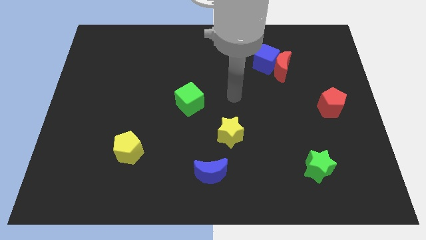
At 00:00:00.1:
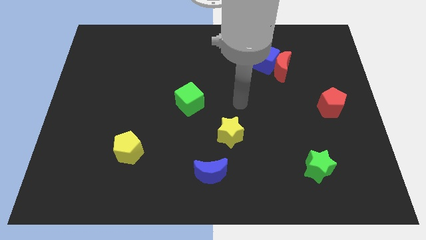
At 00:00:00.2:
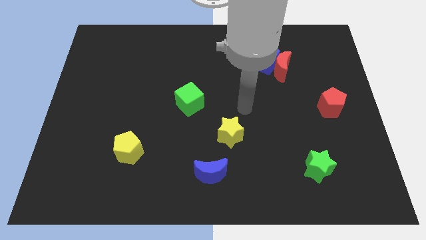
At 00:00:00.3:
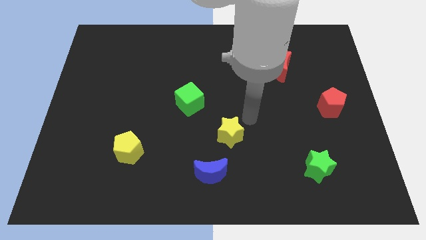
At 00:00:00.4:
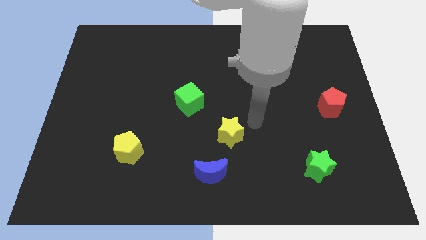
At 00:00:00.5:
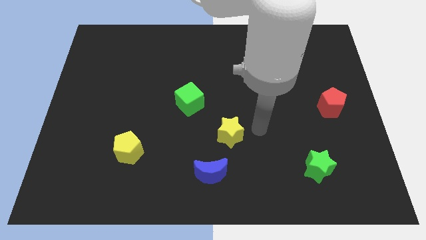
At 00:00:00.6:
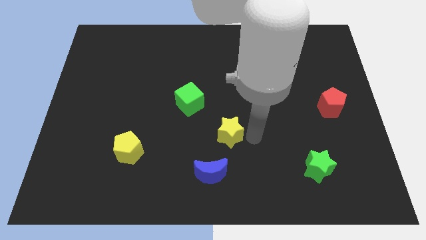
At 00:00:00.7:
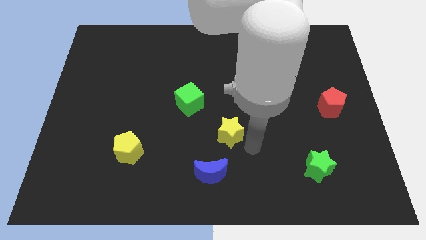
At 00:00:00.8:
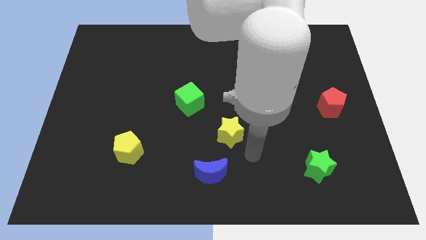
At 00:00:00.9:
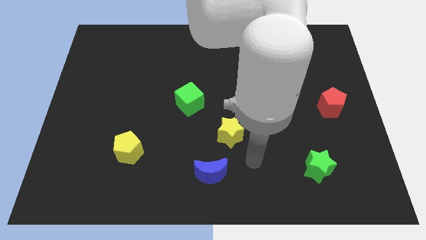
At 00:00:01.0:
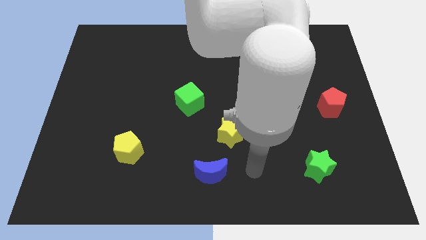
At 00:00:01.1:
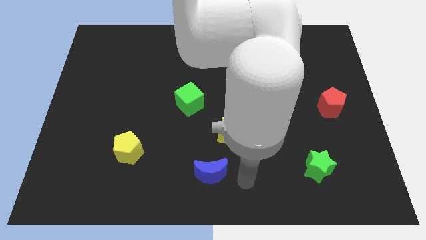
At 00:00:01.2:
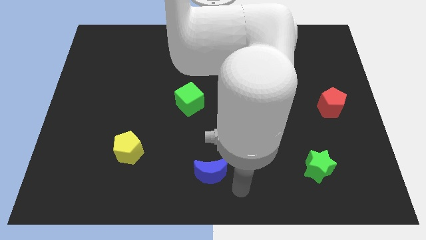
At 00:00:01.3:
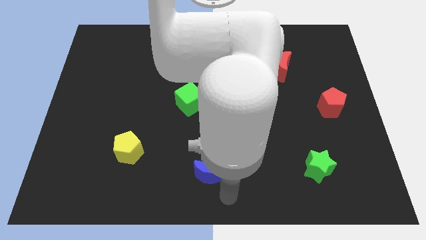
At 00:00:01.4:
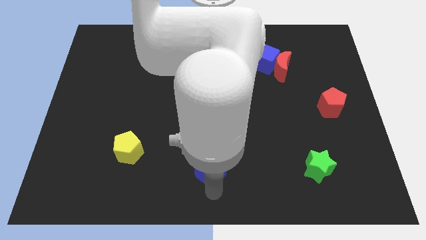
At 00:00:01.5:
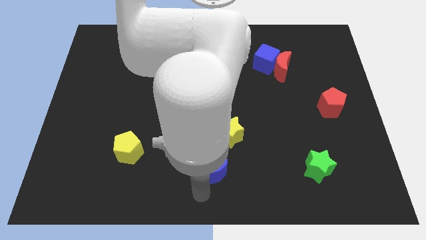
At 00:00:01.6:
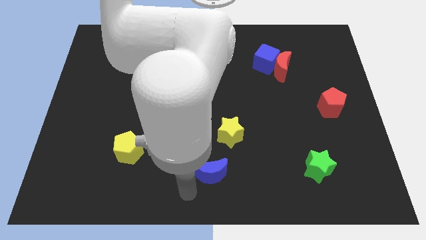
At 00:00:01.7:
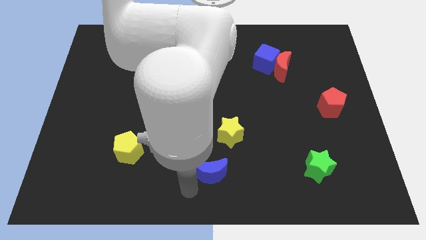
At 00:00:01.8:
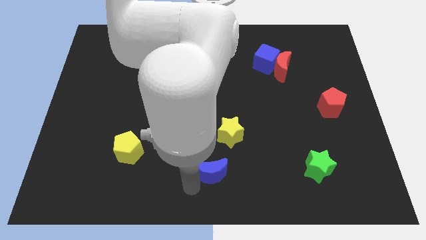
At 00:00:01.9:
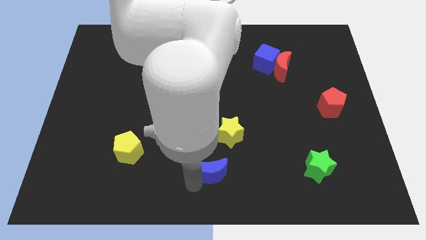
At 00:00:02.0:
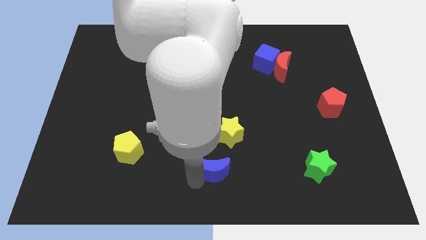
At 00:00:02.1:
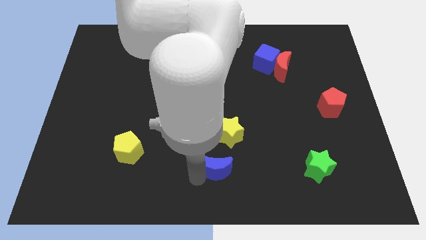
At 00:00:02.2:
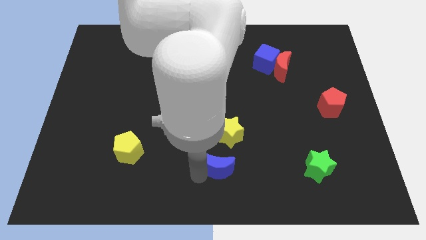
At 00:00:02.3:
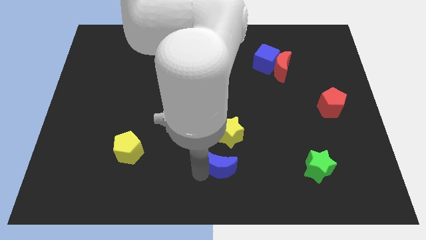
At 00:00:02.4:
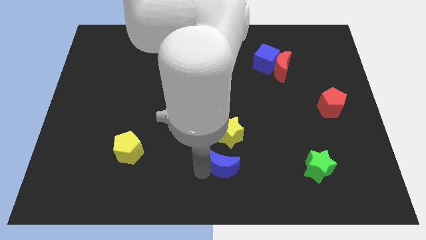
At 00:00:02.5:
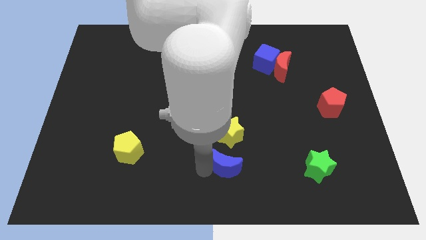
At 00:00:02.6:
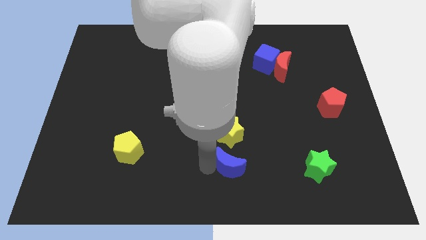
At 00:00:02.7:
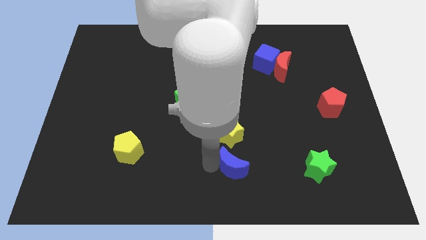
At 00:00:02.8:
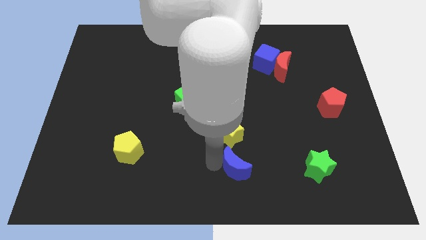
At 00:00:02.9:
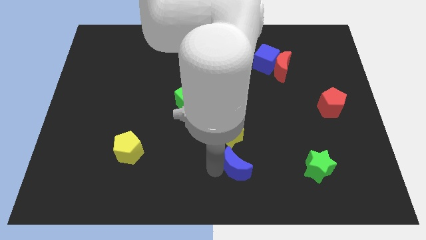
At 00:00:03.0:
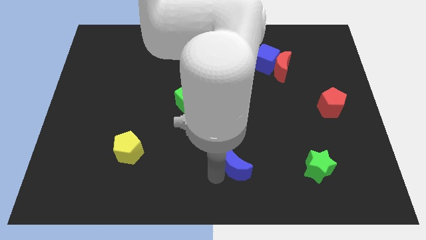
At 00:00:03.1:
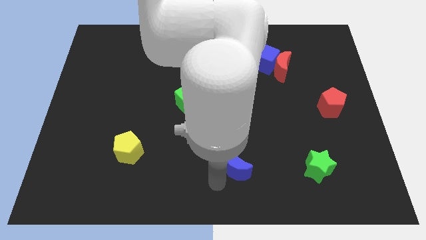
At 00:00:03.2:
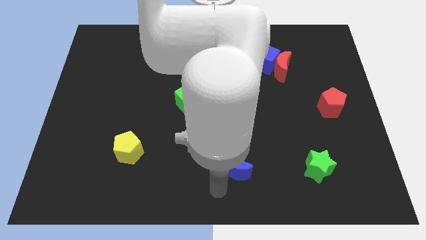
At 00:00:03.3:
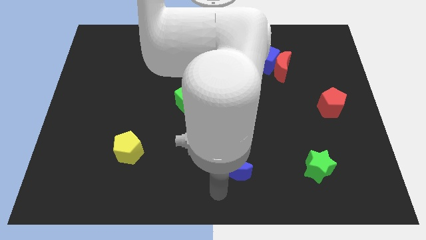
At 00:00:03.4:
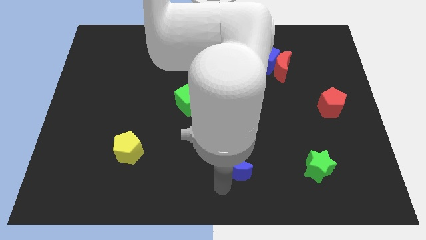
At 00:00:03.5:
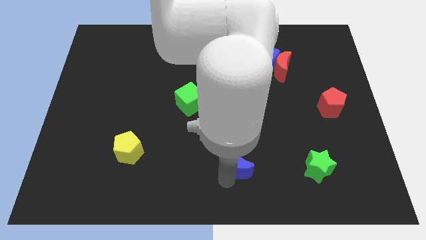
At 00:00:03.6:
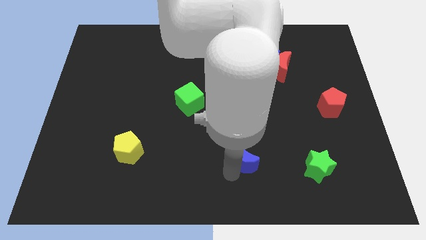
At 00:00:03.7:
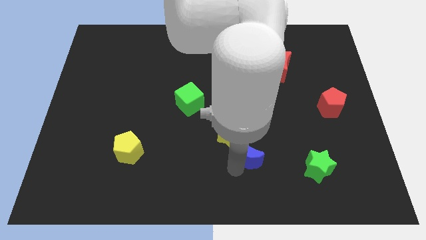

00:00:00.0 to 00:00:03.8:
move the blue moon up and then right slightly

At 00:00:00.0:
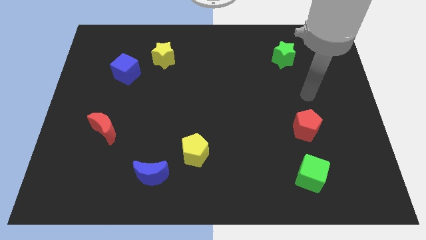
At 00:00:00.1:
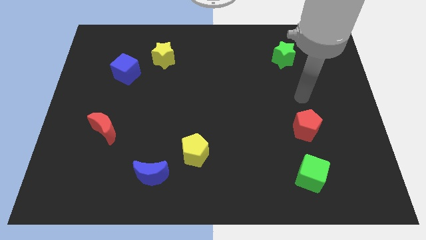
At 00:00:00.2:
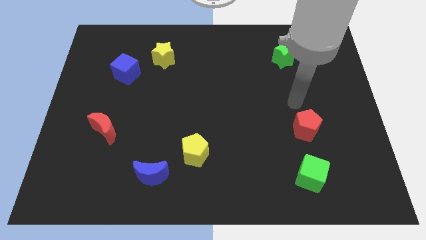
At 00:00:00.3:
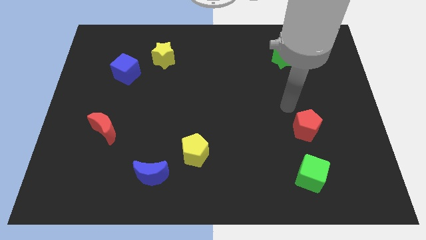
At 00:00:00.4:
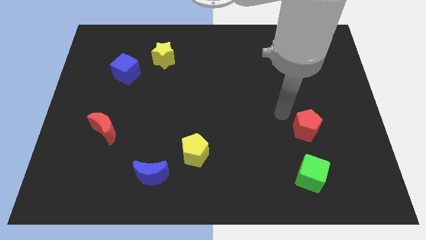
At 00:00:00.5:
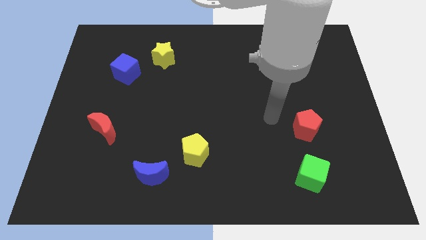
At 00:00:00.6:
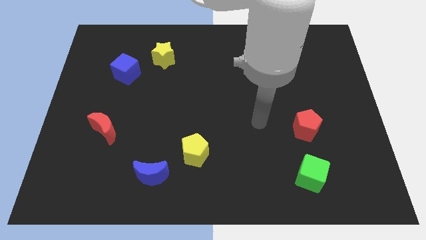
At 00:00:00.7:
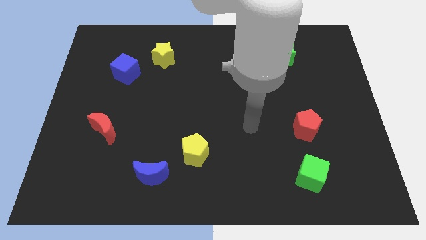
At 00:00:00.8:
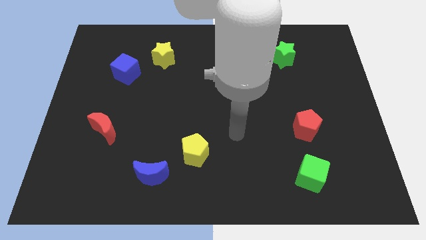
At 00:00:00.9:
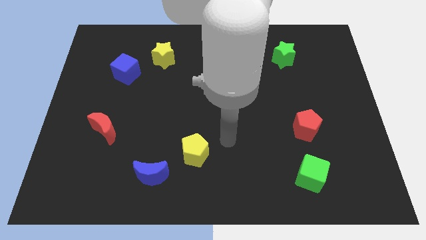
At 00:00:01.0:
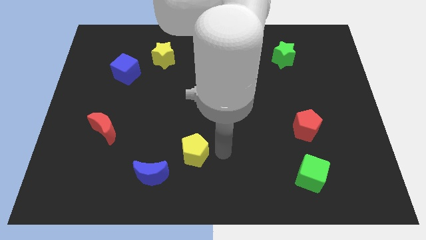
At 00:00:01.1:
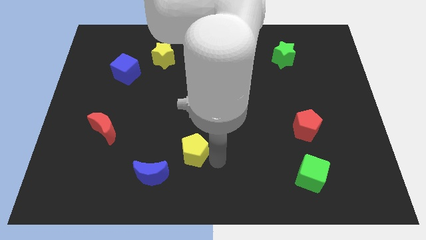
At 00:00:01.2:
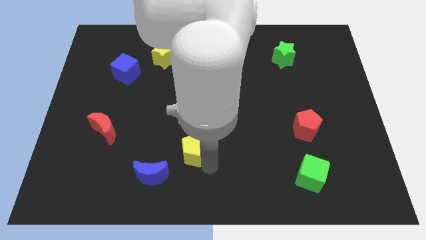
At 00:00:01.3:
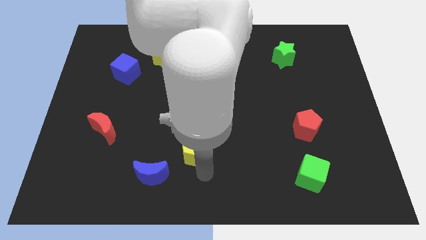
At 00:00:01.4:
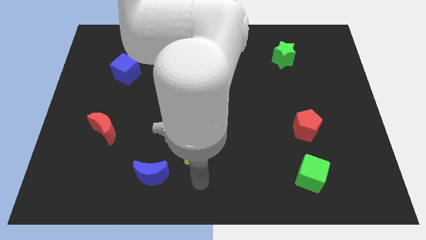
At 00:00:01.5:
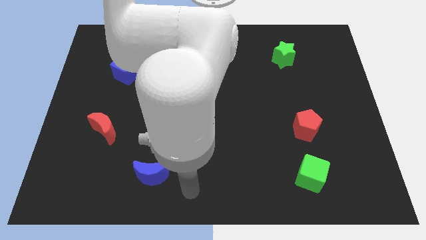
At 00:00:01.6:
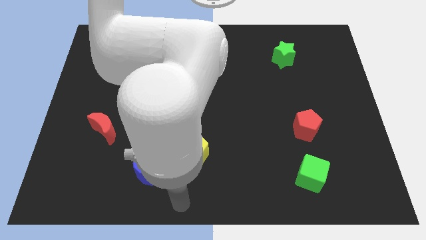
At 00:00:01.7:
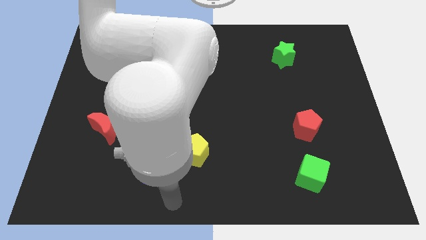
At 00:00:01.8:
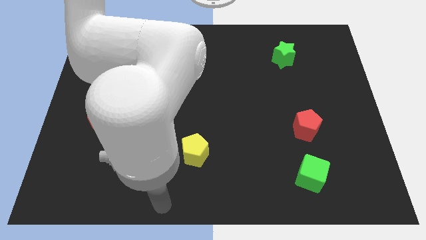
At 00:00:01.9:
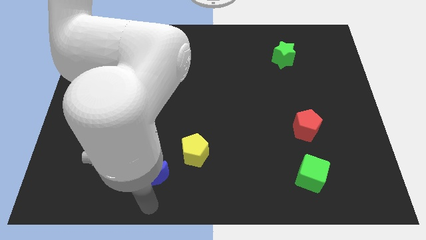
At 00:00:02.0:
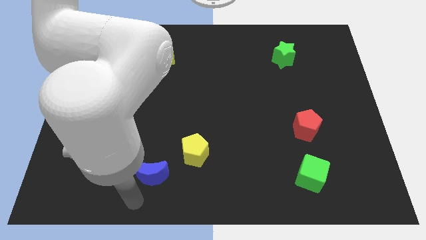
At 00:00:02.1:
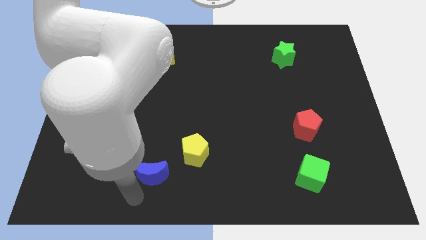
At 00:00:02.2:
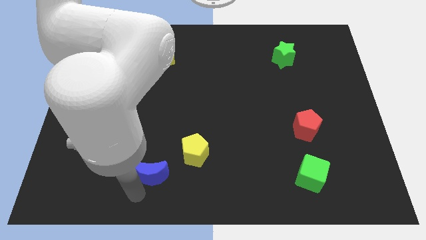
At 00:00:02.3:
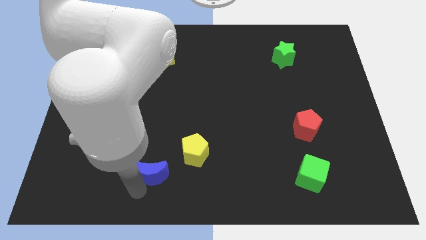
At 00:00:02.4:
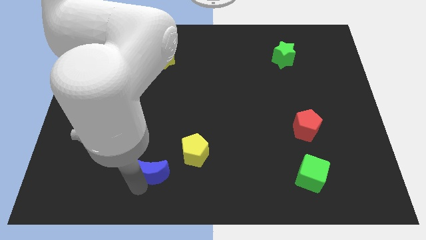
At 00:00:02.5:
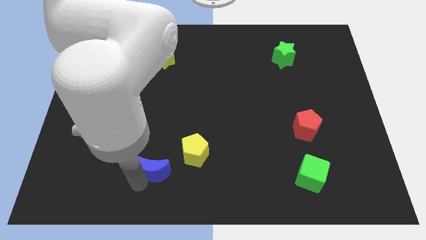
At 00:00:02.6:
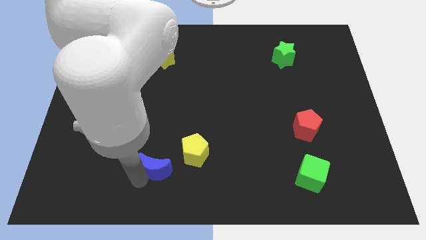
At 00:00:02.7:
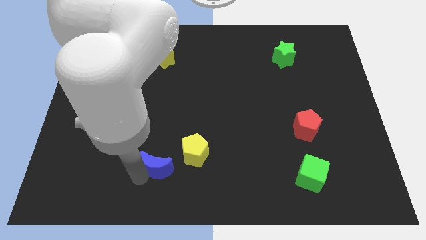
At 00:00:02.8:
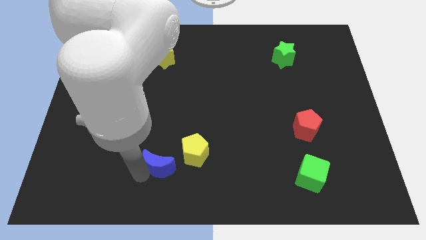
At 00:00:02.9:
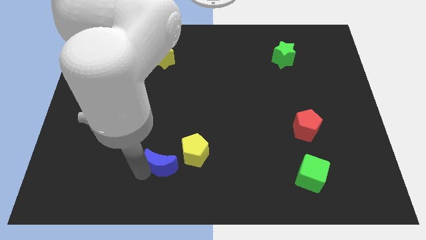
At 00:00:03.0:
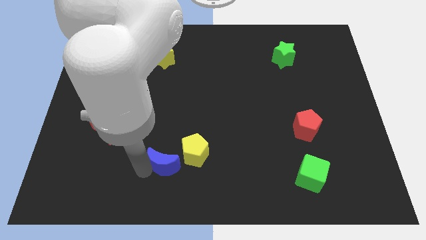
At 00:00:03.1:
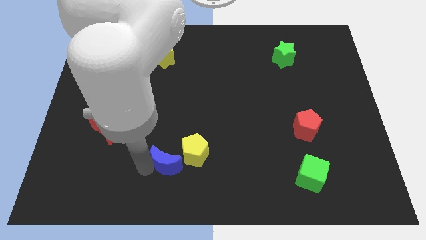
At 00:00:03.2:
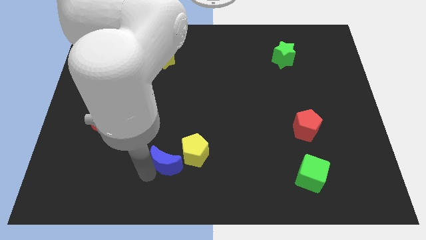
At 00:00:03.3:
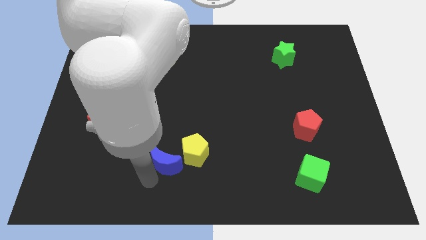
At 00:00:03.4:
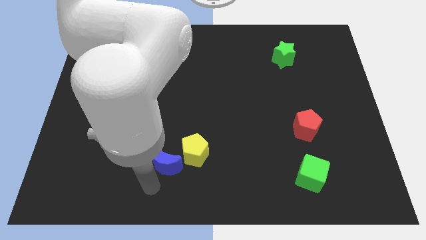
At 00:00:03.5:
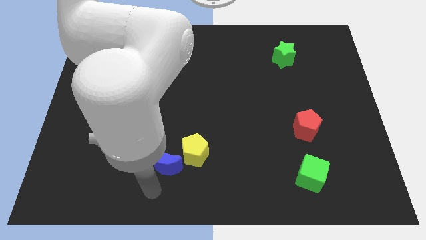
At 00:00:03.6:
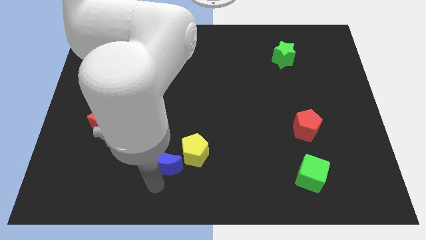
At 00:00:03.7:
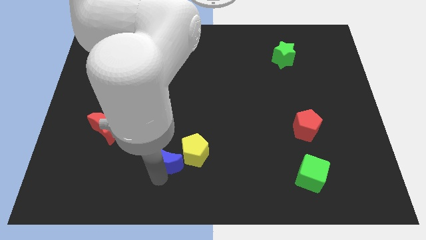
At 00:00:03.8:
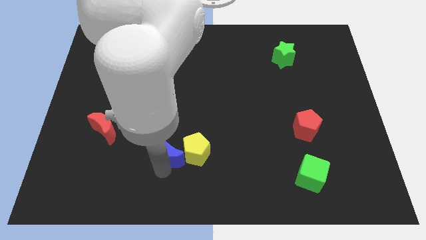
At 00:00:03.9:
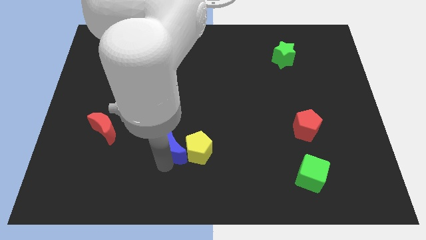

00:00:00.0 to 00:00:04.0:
move the blue moon up and to the right diagonally somewhat

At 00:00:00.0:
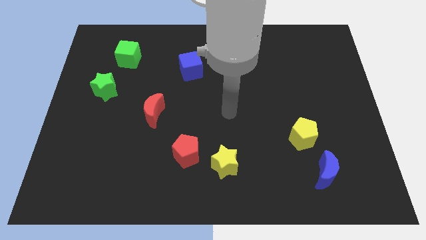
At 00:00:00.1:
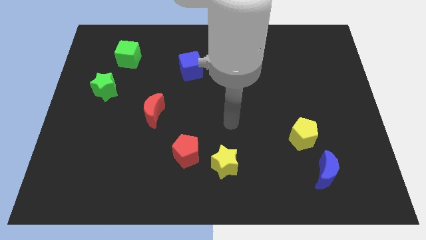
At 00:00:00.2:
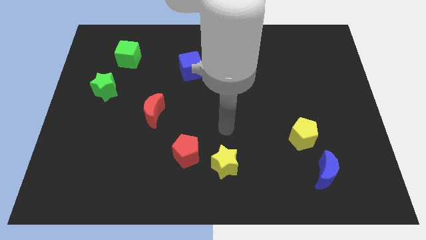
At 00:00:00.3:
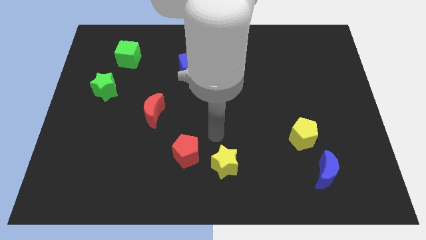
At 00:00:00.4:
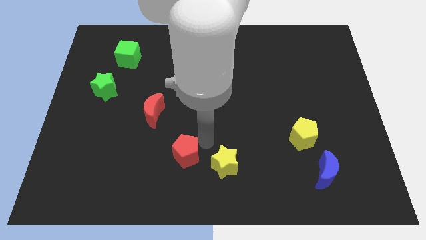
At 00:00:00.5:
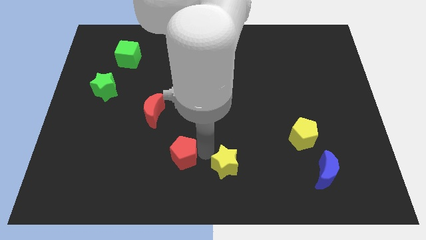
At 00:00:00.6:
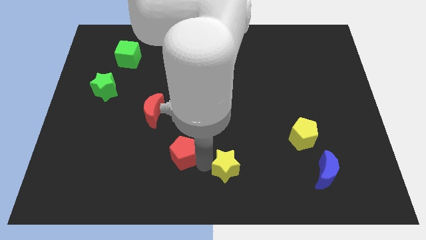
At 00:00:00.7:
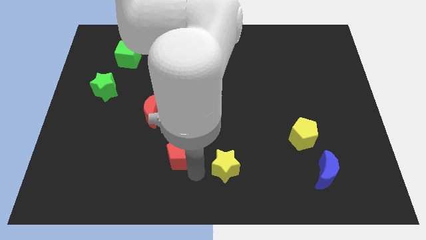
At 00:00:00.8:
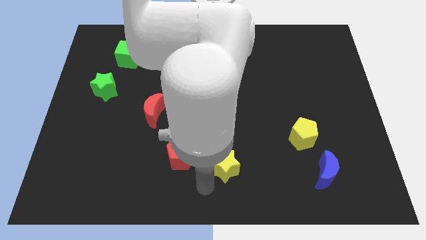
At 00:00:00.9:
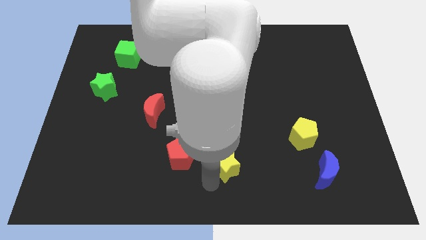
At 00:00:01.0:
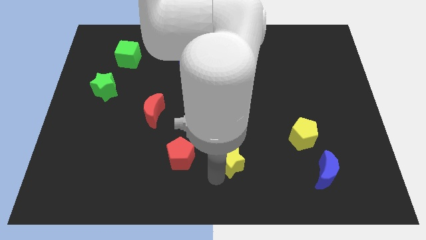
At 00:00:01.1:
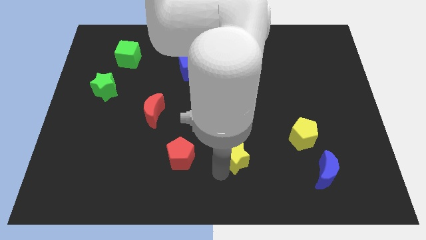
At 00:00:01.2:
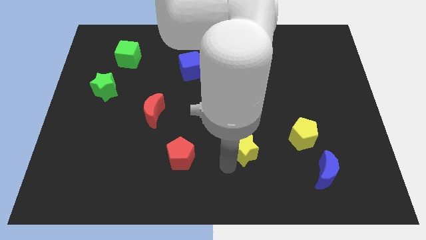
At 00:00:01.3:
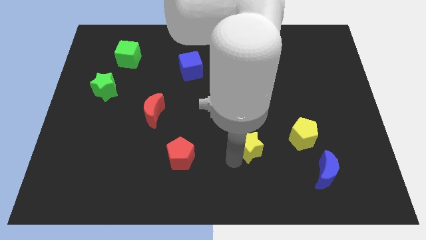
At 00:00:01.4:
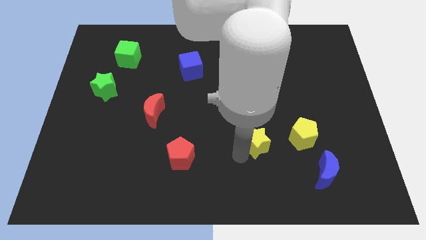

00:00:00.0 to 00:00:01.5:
move the yellow star diagonally upwards and right a little
